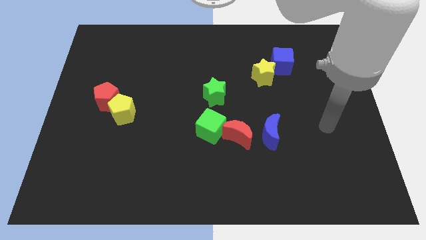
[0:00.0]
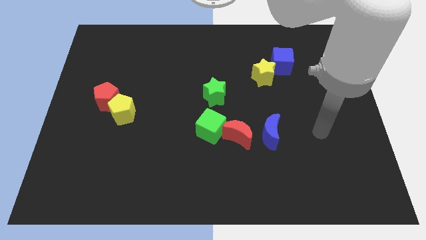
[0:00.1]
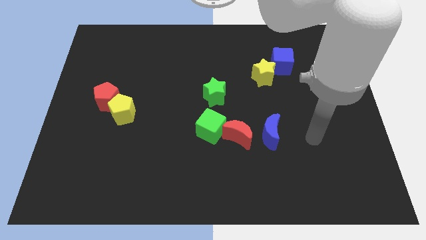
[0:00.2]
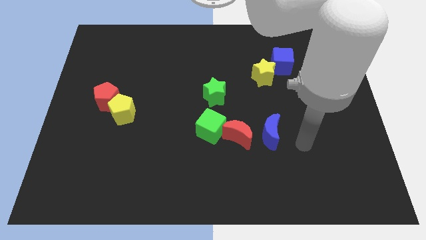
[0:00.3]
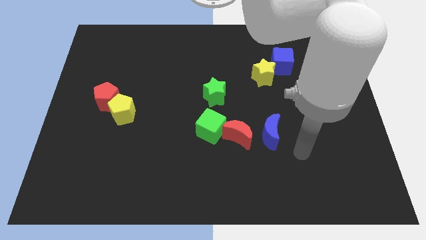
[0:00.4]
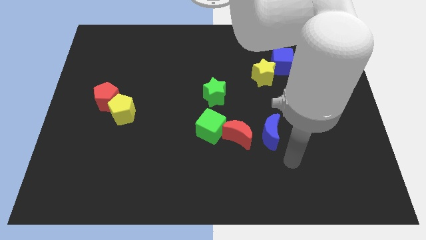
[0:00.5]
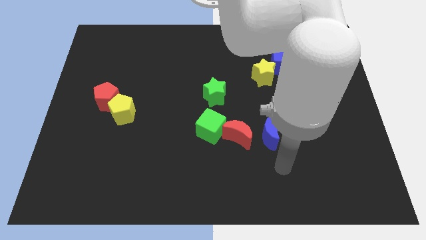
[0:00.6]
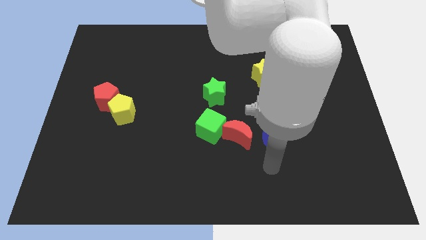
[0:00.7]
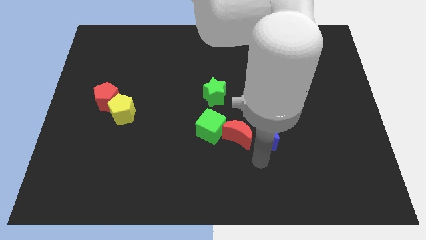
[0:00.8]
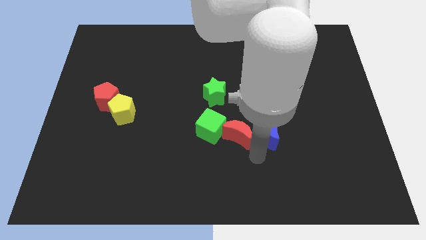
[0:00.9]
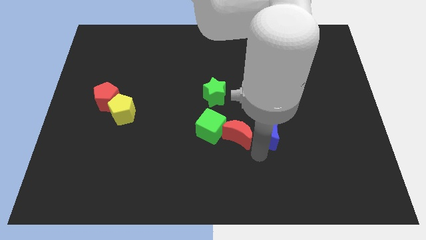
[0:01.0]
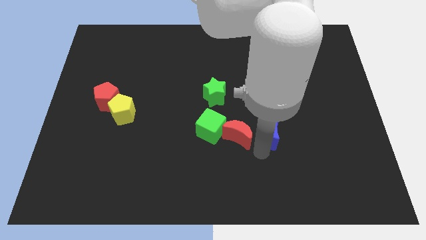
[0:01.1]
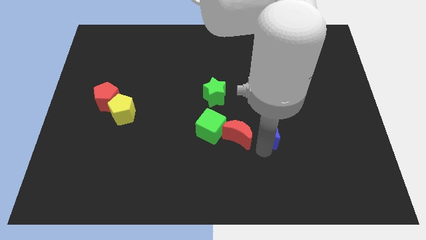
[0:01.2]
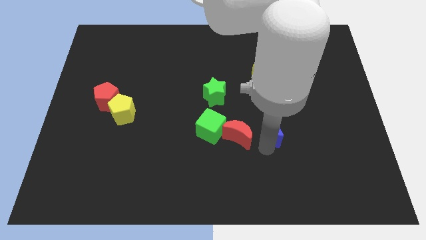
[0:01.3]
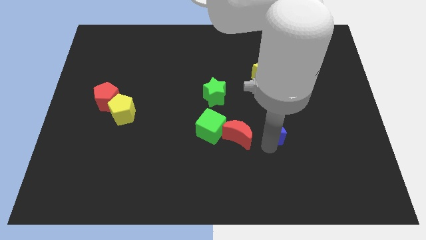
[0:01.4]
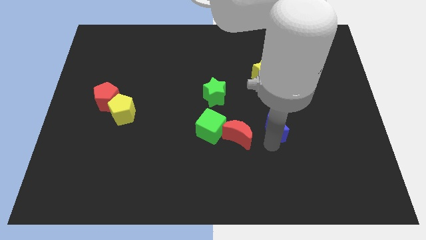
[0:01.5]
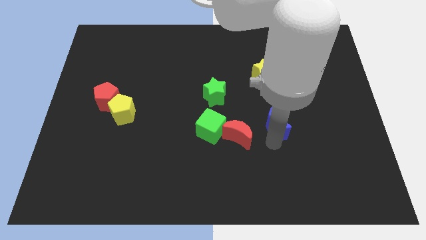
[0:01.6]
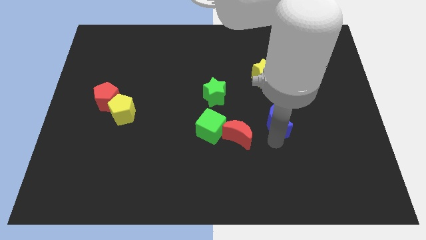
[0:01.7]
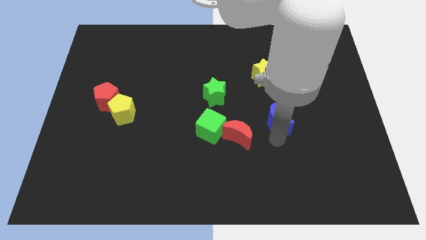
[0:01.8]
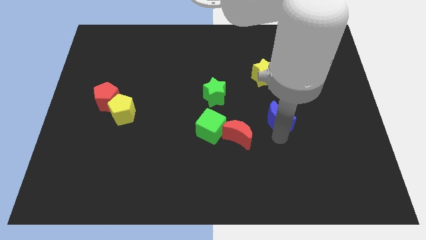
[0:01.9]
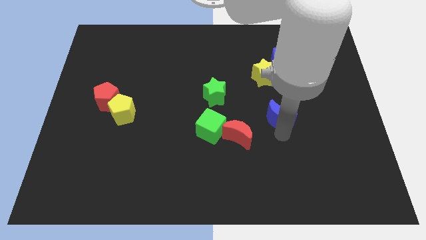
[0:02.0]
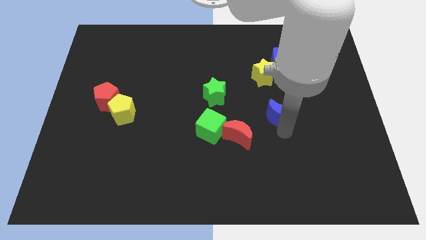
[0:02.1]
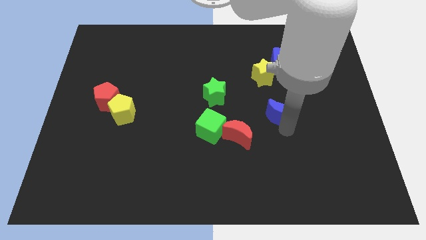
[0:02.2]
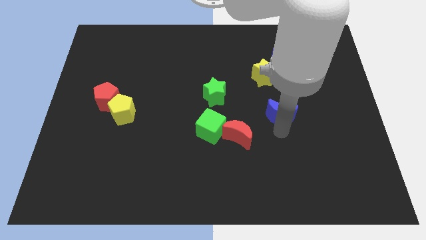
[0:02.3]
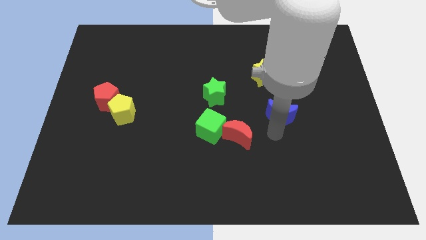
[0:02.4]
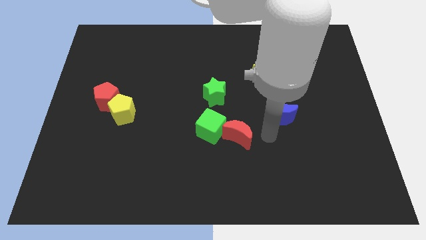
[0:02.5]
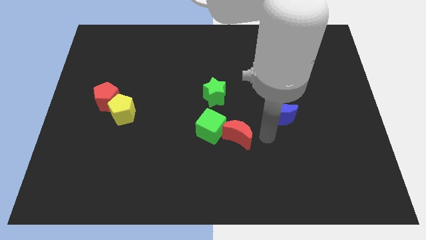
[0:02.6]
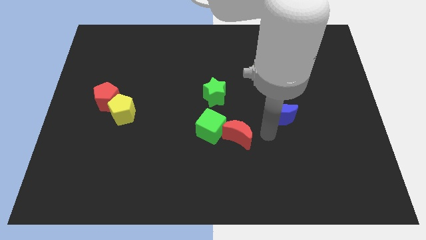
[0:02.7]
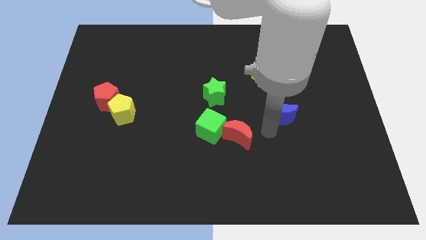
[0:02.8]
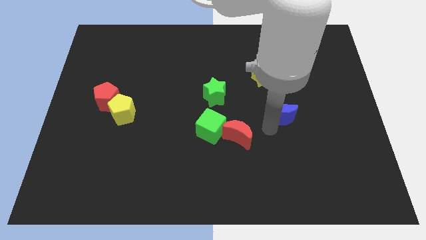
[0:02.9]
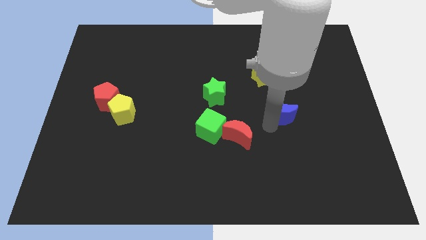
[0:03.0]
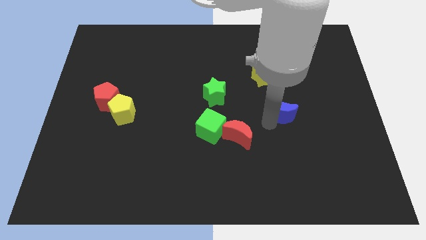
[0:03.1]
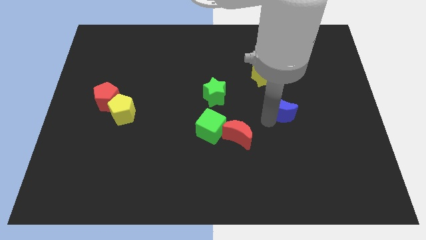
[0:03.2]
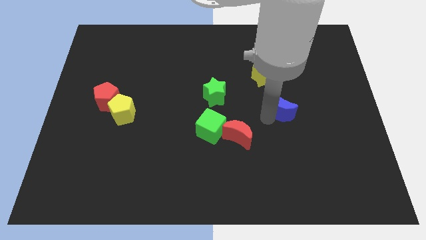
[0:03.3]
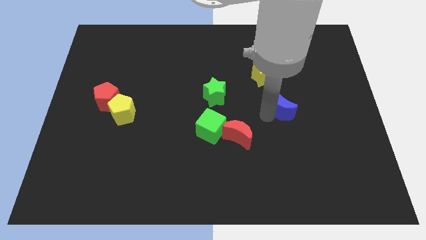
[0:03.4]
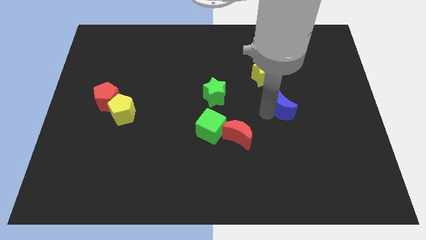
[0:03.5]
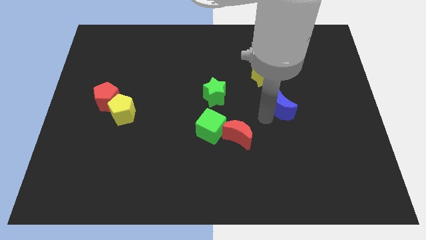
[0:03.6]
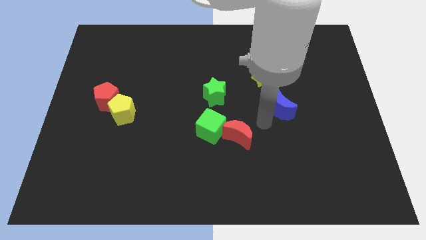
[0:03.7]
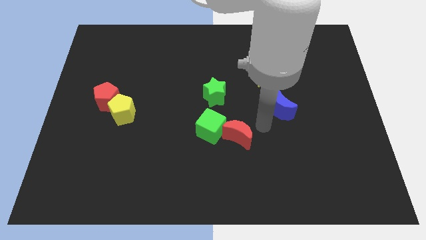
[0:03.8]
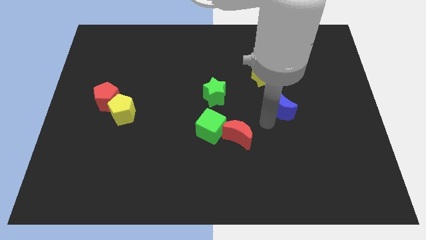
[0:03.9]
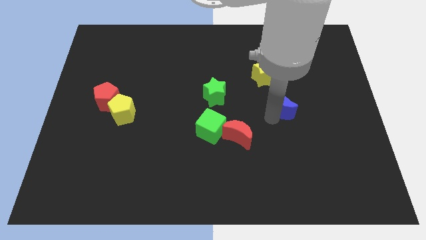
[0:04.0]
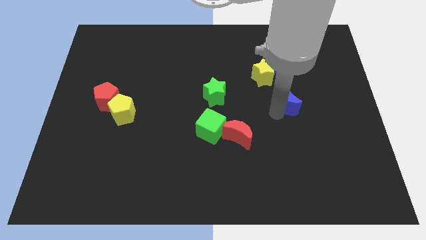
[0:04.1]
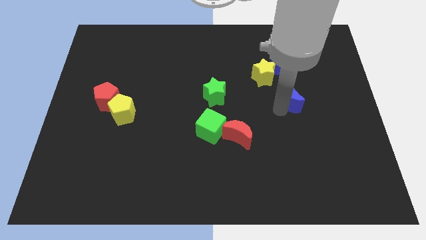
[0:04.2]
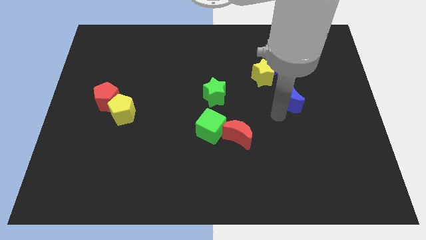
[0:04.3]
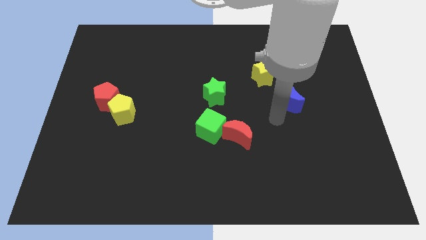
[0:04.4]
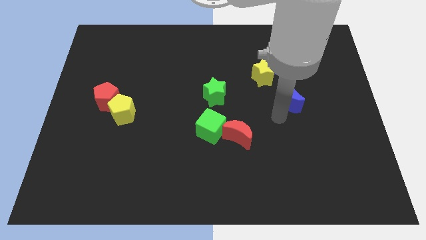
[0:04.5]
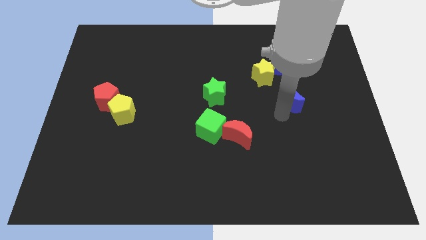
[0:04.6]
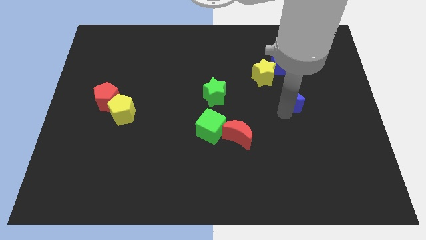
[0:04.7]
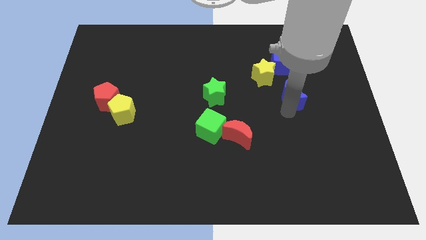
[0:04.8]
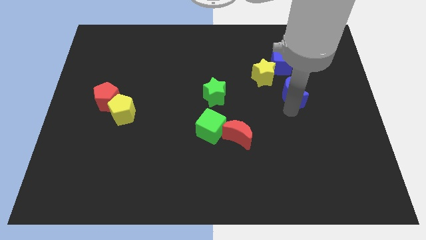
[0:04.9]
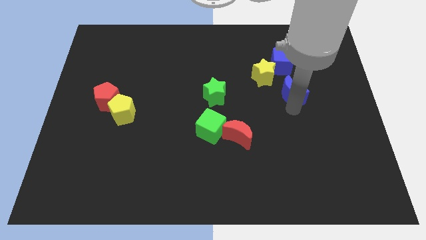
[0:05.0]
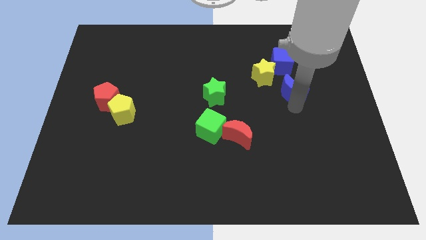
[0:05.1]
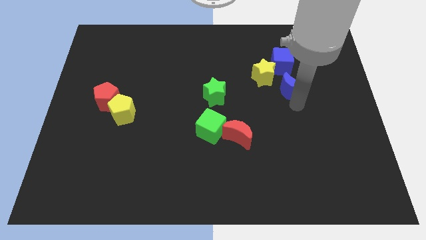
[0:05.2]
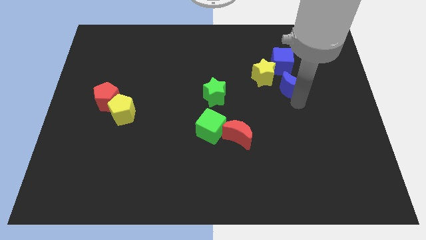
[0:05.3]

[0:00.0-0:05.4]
push the blue moon to the bottom right of the blue cube

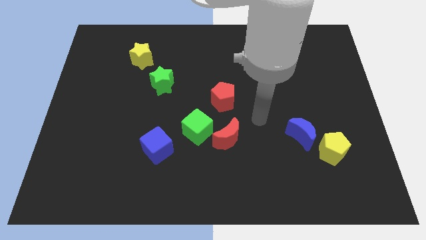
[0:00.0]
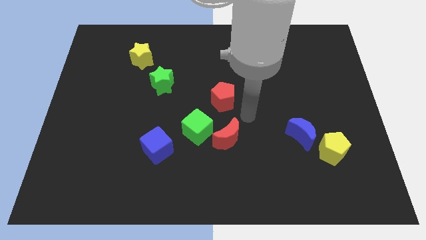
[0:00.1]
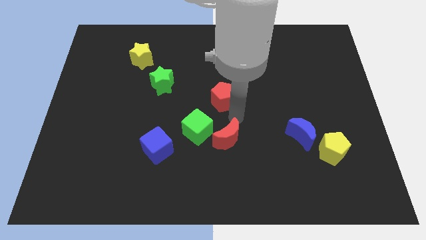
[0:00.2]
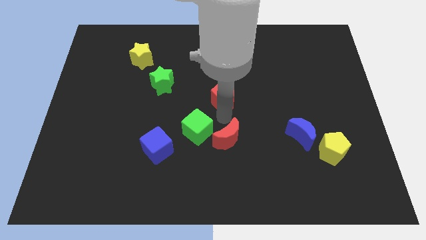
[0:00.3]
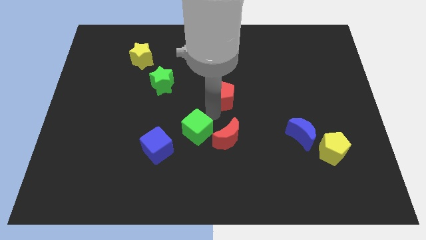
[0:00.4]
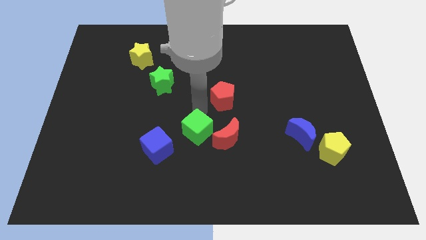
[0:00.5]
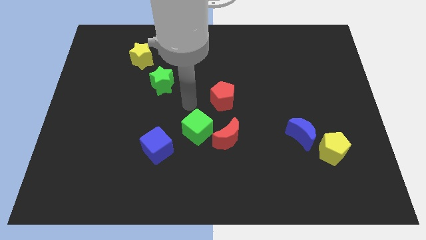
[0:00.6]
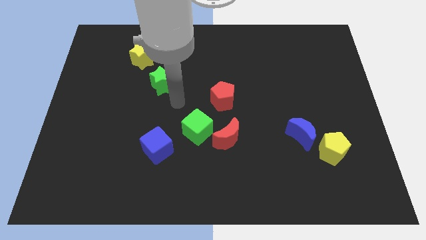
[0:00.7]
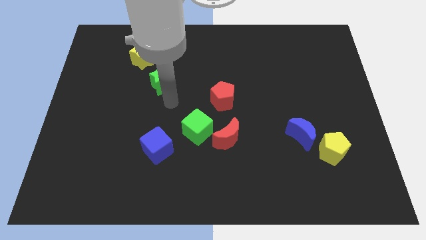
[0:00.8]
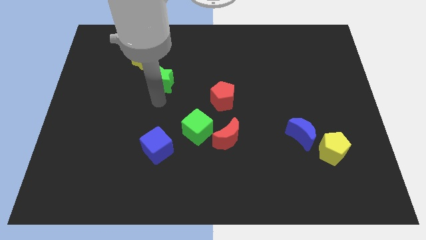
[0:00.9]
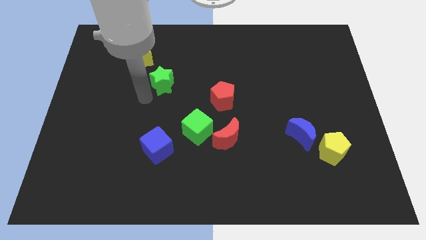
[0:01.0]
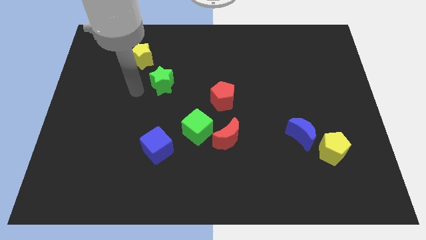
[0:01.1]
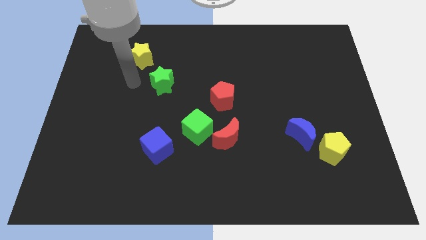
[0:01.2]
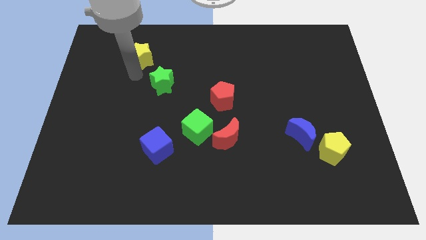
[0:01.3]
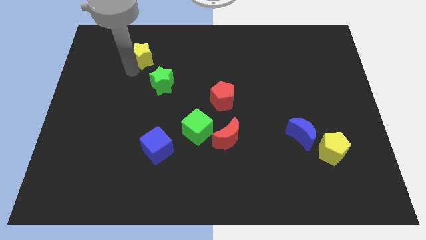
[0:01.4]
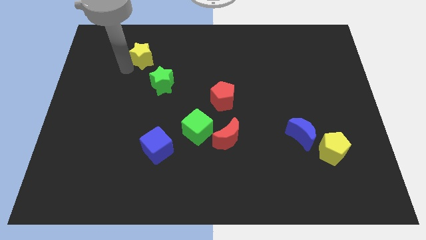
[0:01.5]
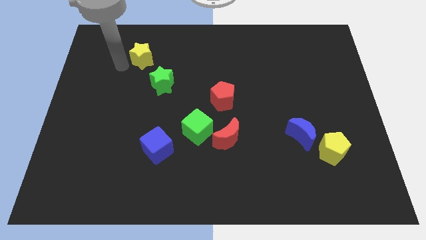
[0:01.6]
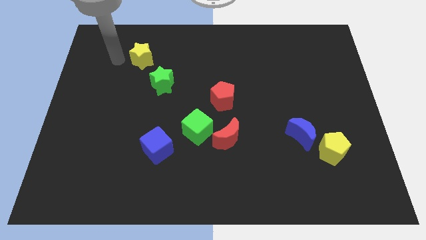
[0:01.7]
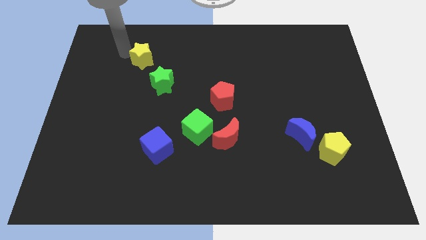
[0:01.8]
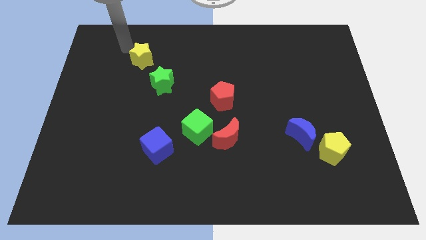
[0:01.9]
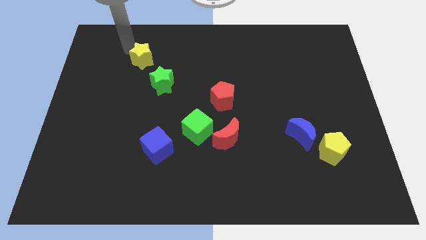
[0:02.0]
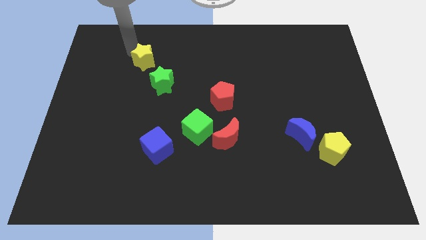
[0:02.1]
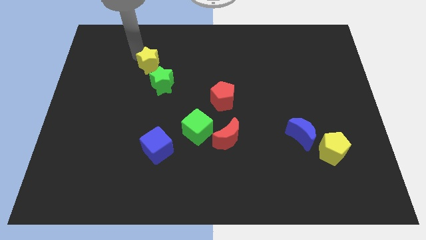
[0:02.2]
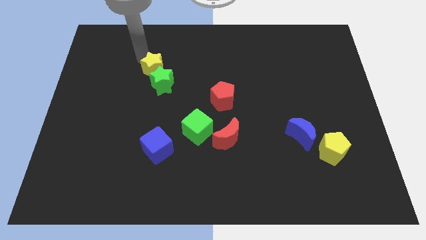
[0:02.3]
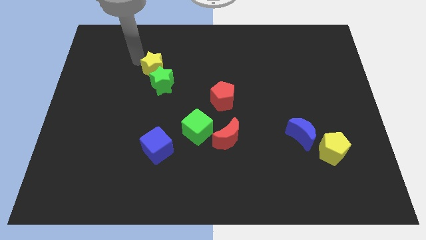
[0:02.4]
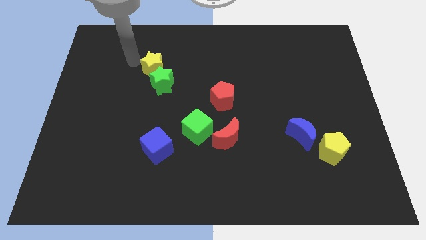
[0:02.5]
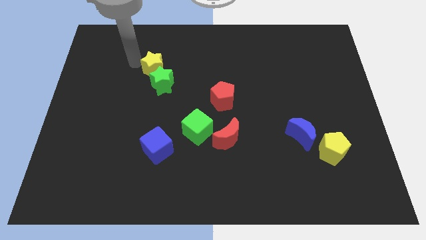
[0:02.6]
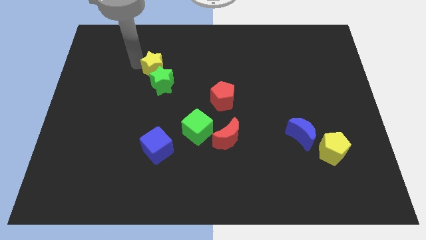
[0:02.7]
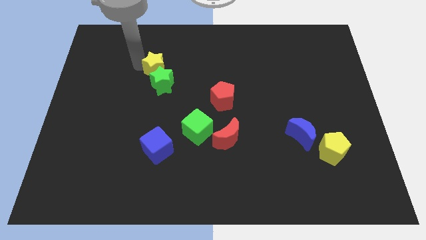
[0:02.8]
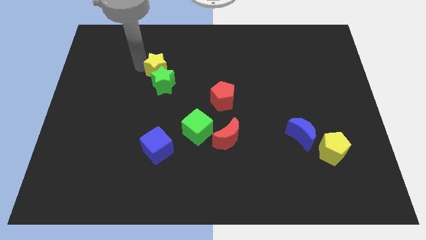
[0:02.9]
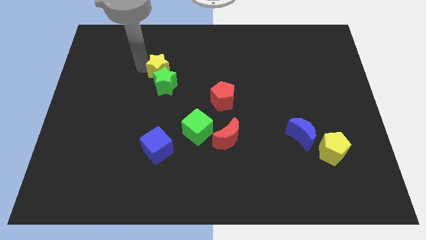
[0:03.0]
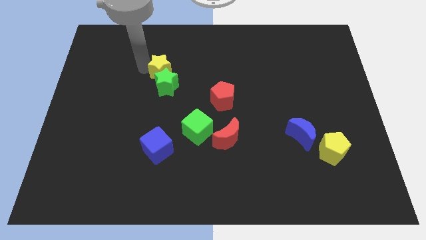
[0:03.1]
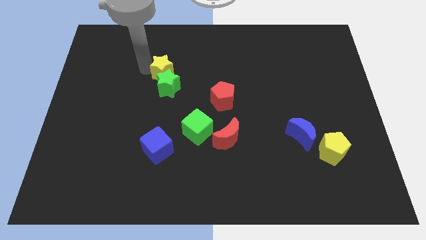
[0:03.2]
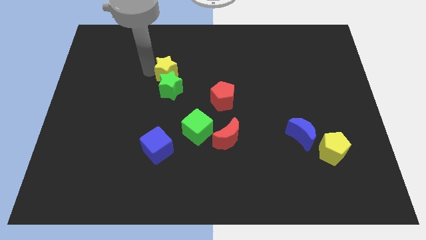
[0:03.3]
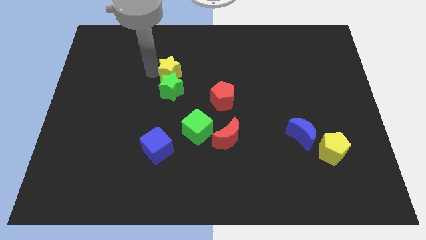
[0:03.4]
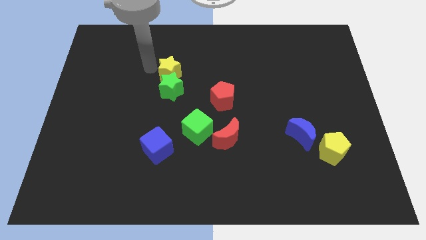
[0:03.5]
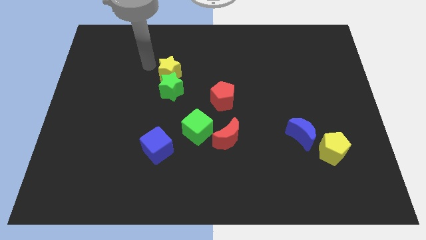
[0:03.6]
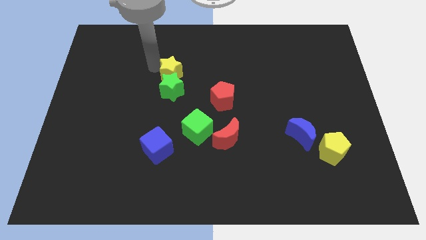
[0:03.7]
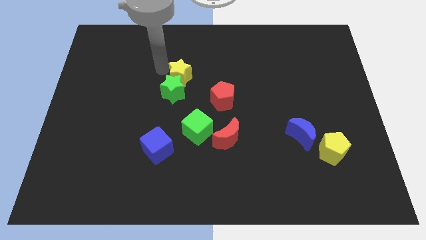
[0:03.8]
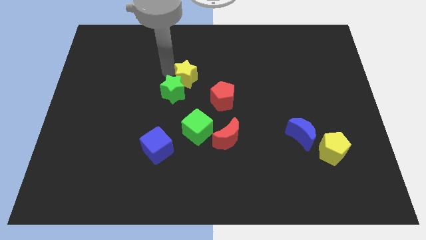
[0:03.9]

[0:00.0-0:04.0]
move the yellow star to the top left of the red pentagon
